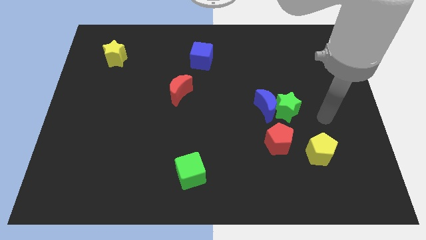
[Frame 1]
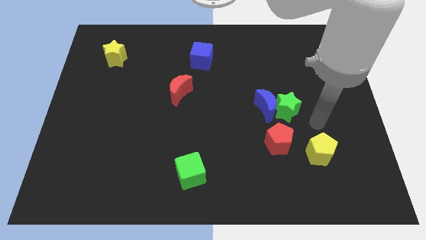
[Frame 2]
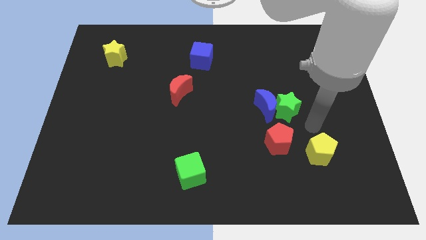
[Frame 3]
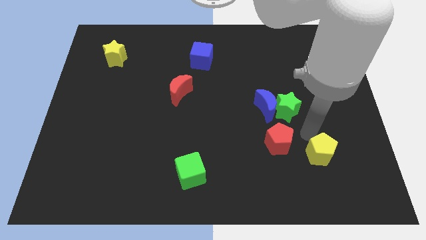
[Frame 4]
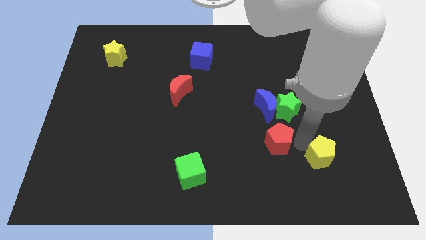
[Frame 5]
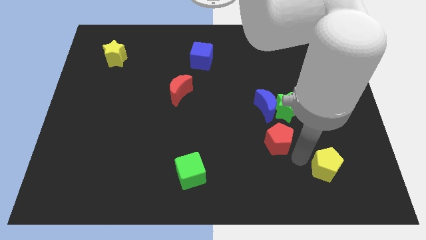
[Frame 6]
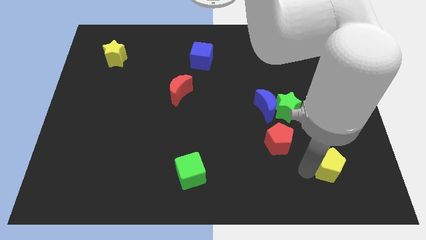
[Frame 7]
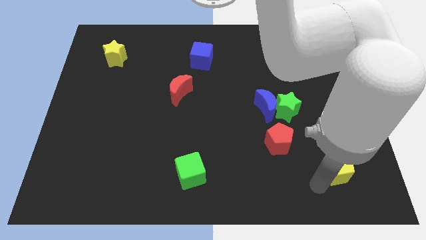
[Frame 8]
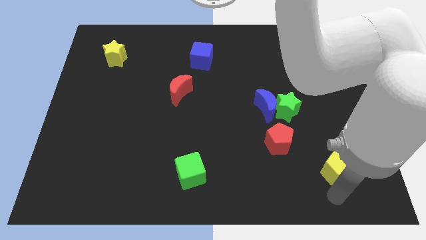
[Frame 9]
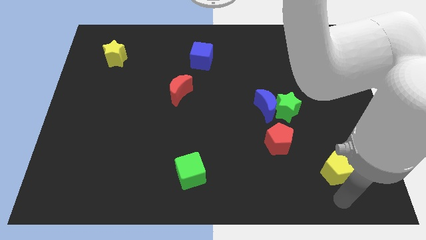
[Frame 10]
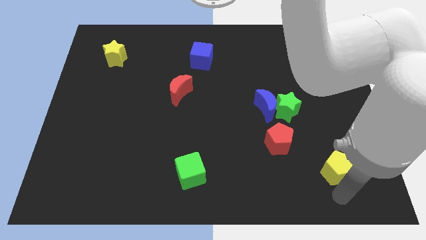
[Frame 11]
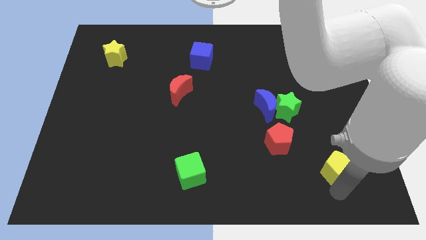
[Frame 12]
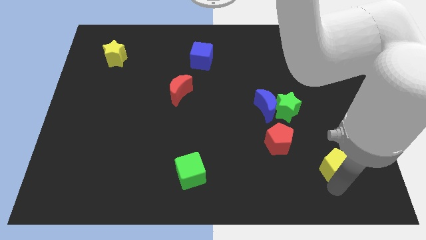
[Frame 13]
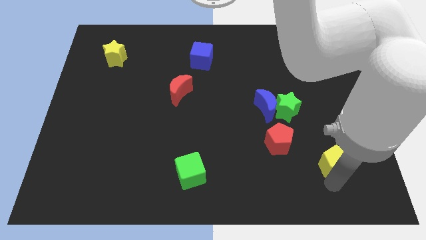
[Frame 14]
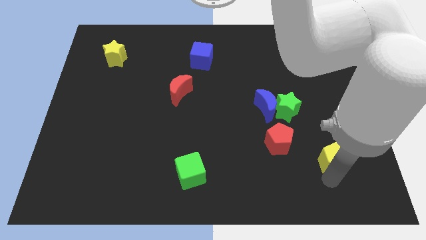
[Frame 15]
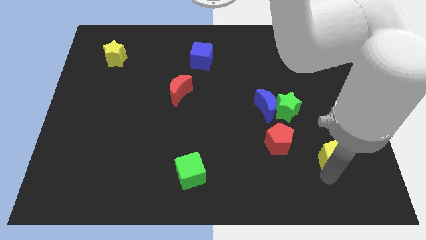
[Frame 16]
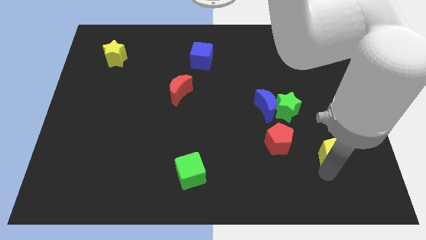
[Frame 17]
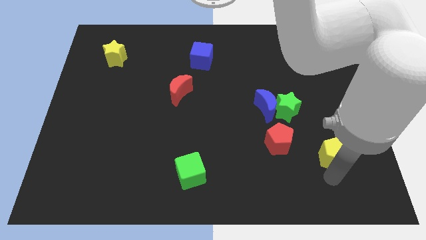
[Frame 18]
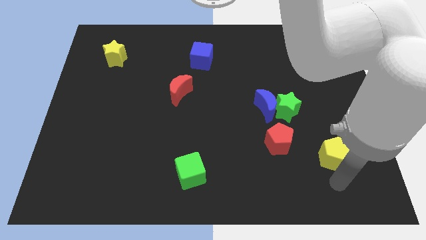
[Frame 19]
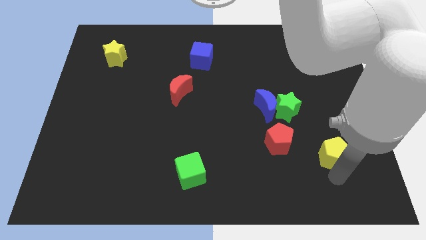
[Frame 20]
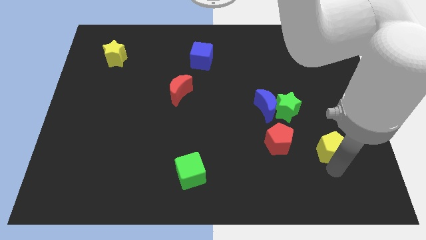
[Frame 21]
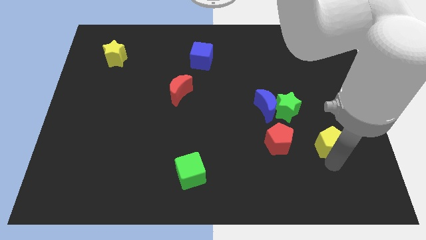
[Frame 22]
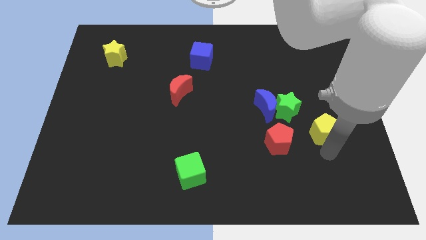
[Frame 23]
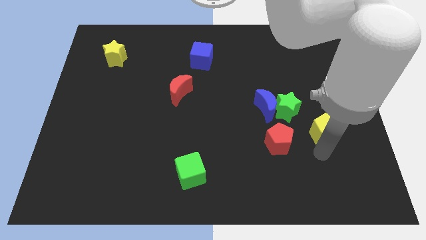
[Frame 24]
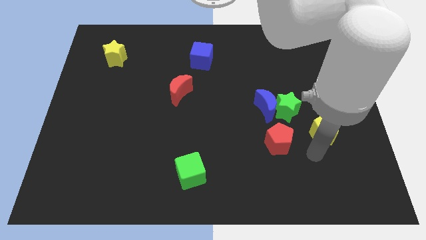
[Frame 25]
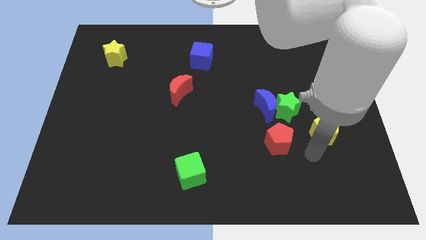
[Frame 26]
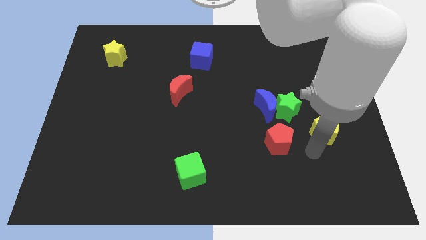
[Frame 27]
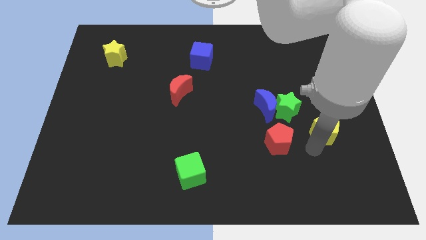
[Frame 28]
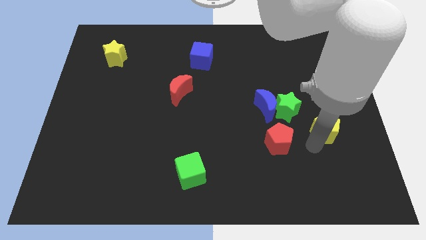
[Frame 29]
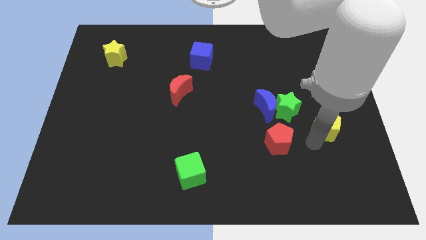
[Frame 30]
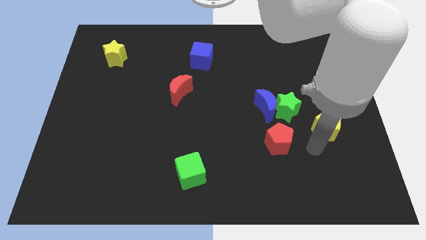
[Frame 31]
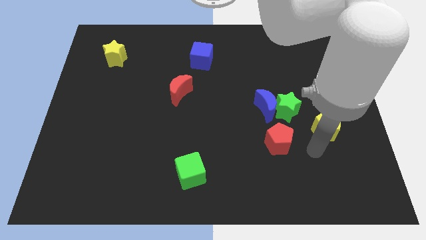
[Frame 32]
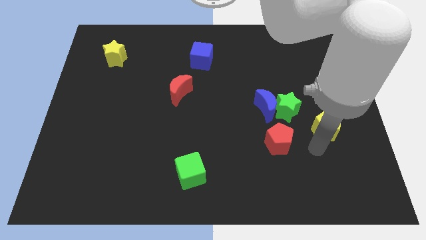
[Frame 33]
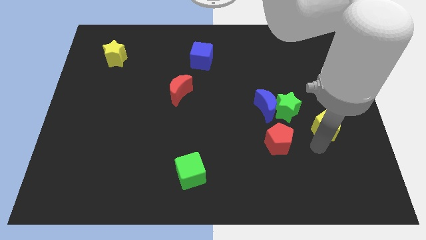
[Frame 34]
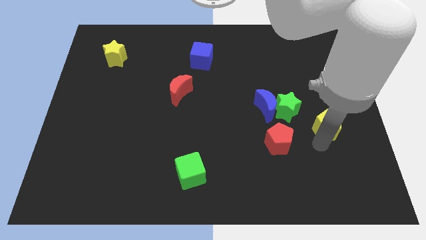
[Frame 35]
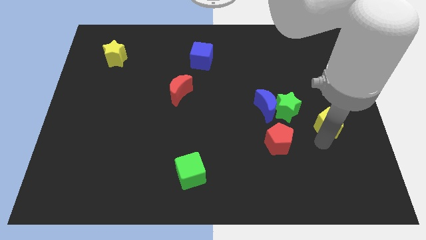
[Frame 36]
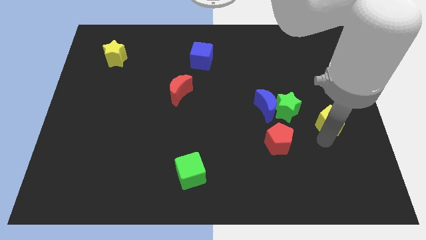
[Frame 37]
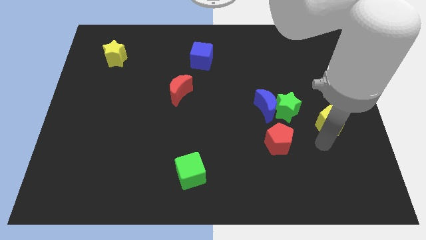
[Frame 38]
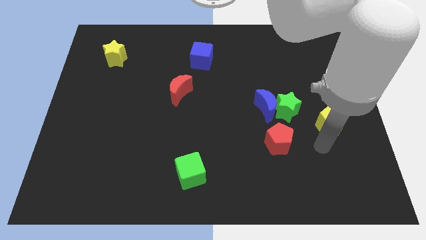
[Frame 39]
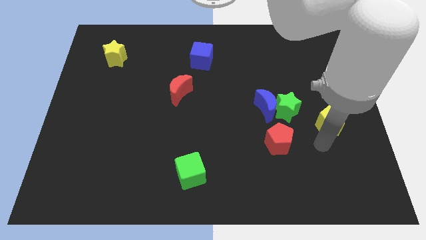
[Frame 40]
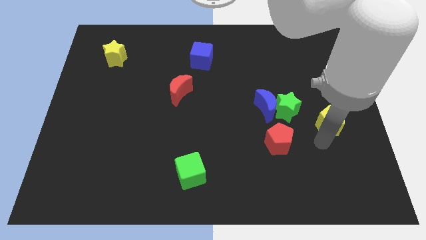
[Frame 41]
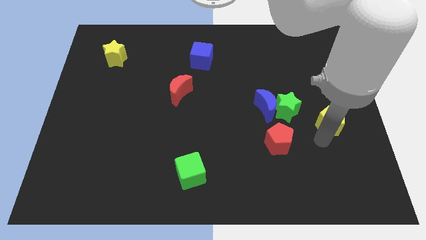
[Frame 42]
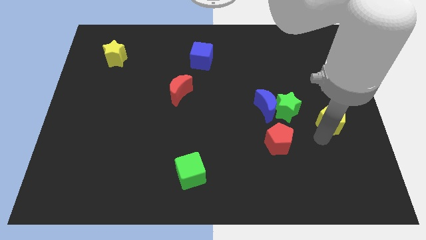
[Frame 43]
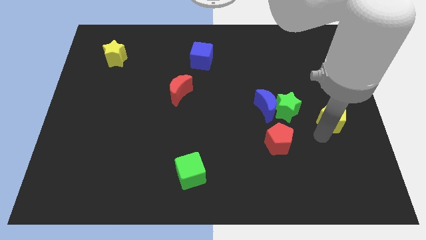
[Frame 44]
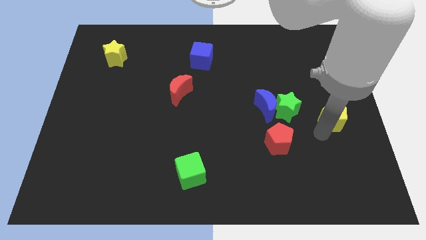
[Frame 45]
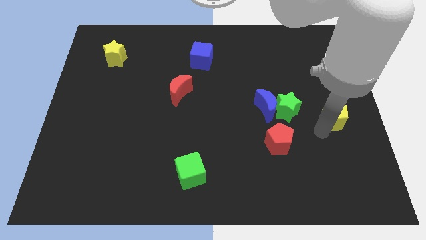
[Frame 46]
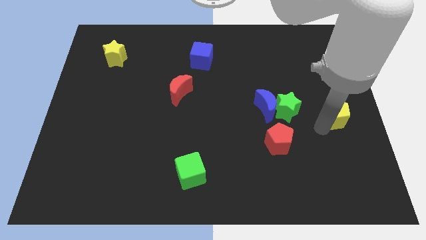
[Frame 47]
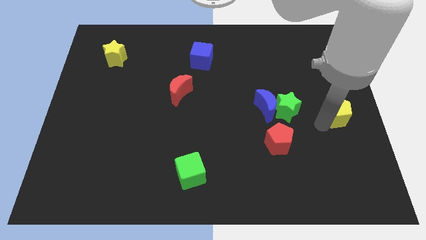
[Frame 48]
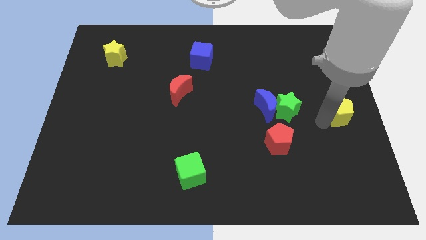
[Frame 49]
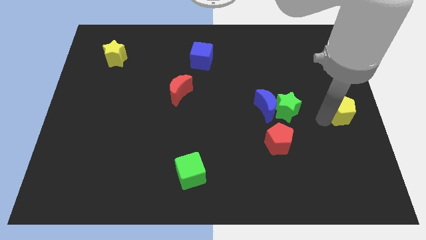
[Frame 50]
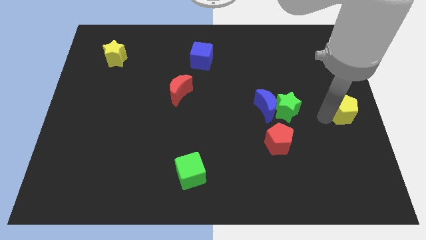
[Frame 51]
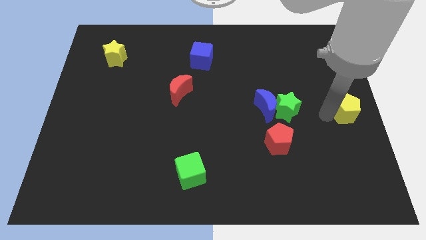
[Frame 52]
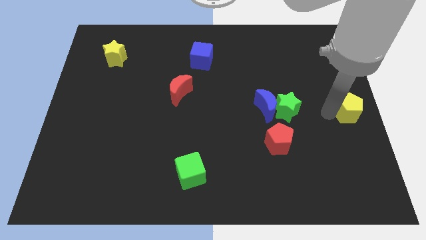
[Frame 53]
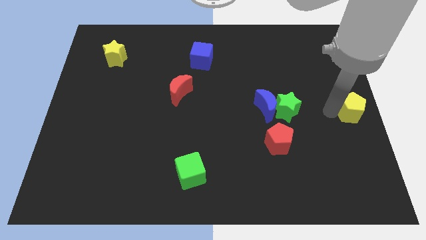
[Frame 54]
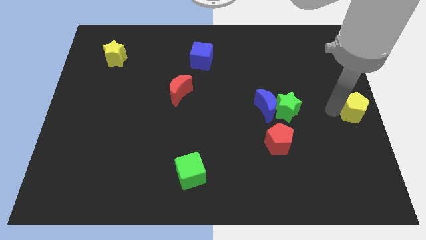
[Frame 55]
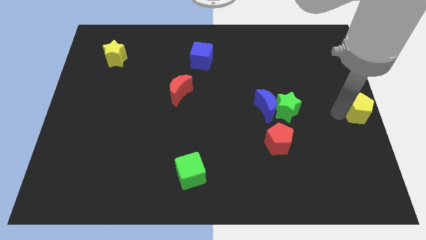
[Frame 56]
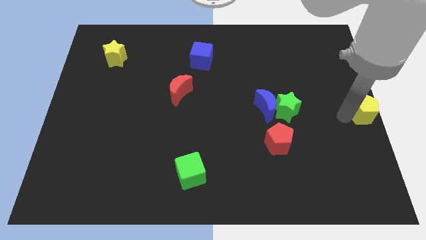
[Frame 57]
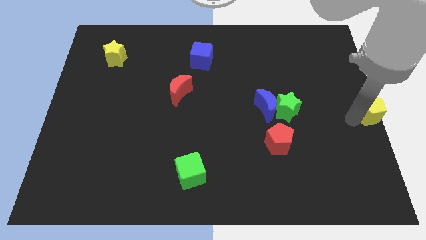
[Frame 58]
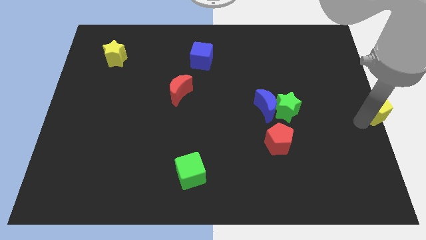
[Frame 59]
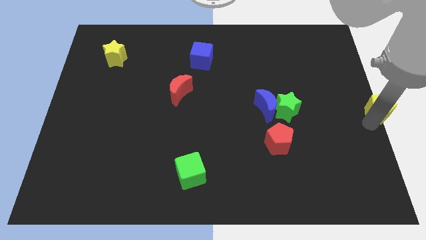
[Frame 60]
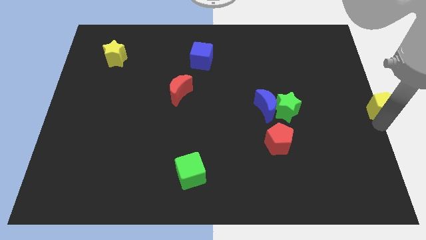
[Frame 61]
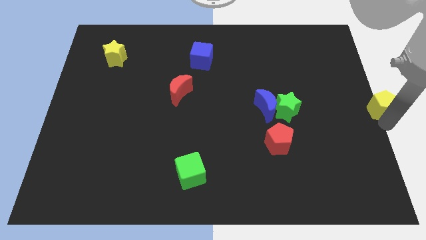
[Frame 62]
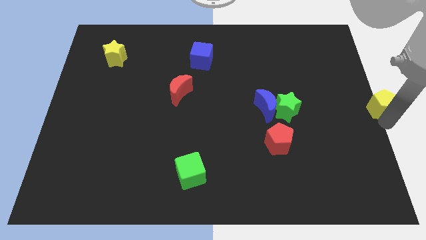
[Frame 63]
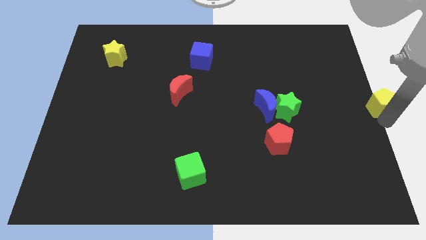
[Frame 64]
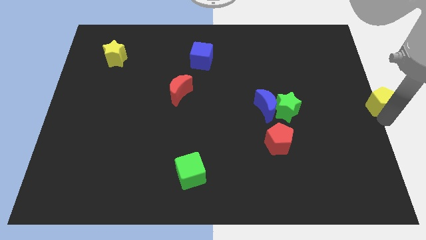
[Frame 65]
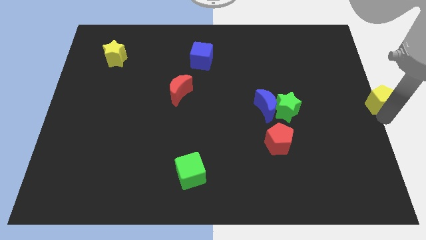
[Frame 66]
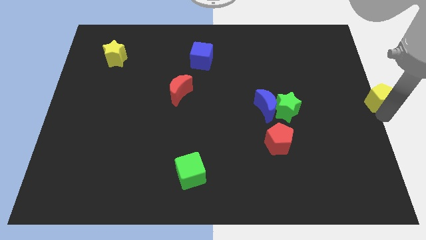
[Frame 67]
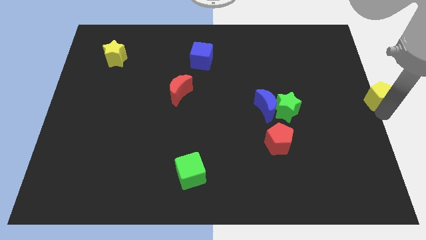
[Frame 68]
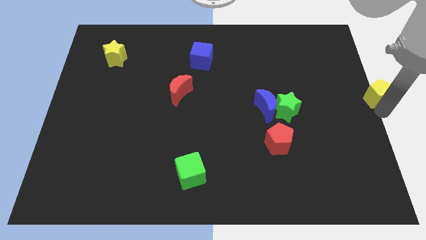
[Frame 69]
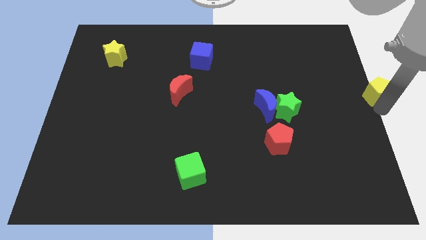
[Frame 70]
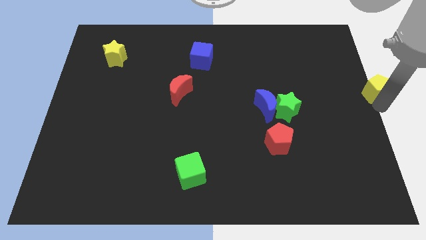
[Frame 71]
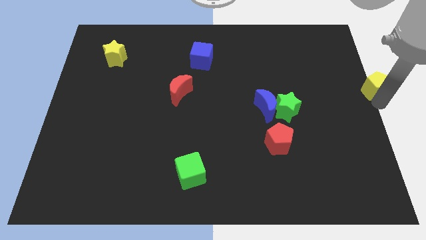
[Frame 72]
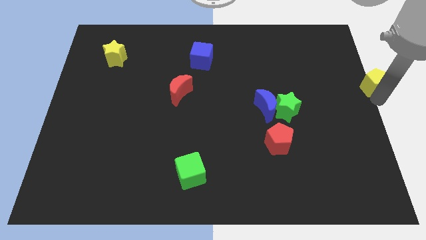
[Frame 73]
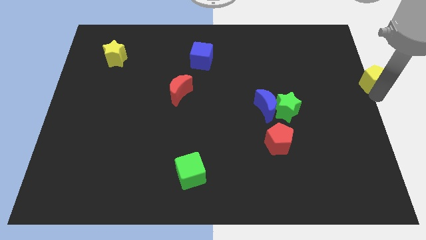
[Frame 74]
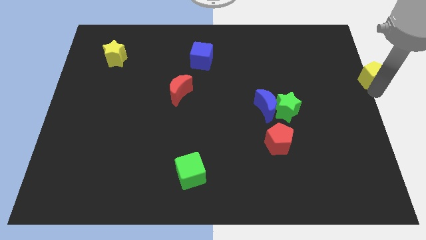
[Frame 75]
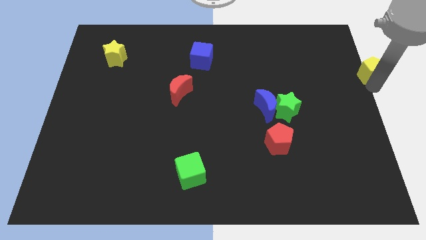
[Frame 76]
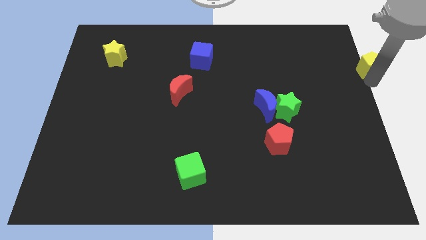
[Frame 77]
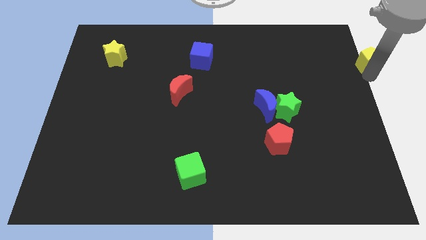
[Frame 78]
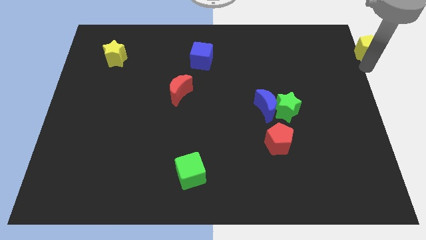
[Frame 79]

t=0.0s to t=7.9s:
move the yellow pentagon to the top right corner
